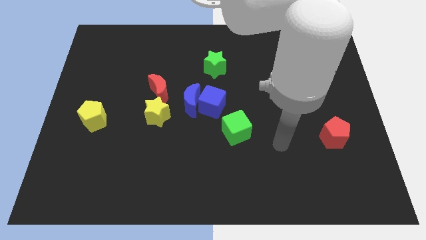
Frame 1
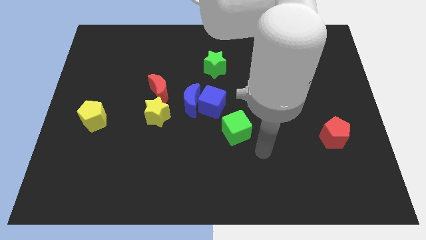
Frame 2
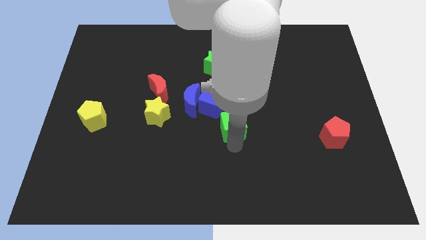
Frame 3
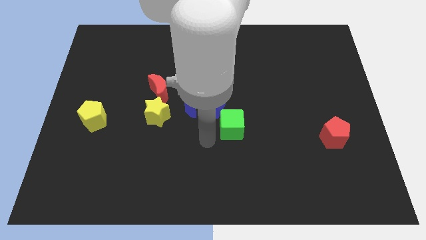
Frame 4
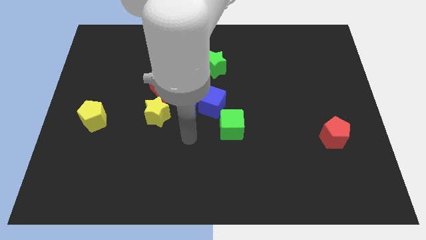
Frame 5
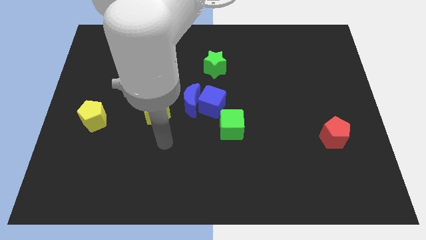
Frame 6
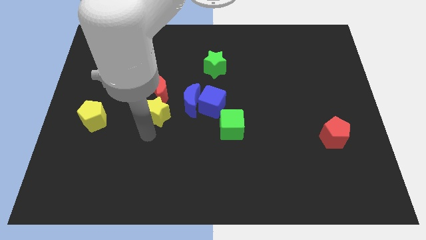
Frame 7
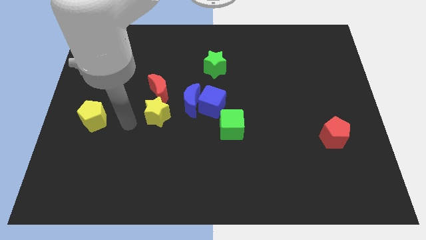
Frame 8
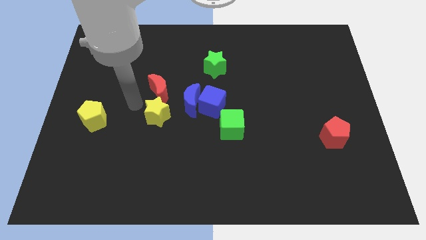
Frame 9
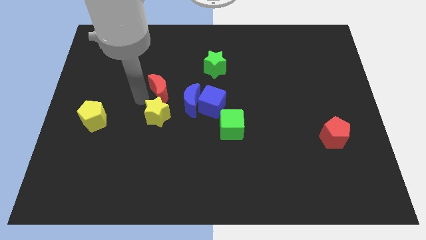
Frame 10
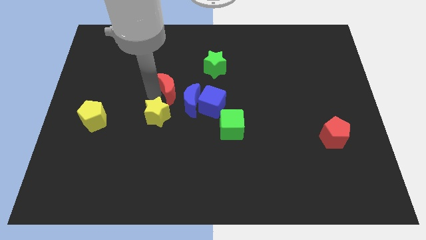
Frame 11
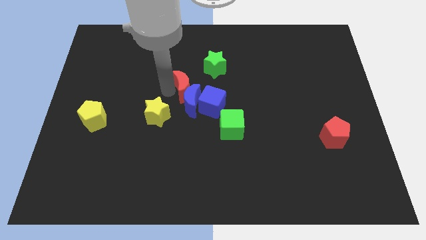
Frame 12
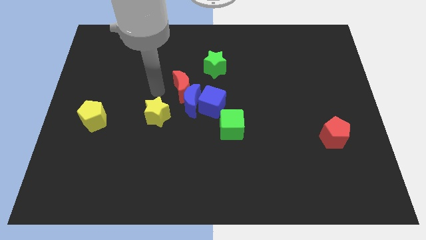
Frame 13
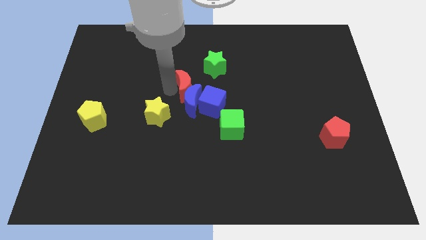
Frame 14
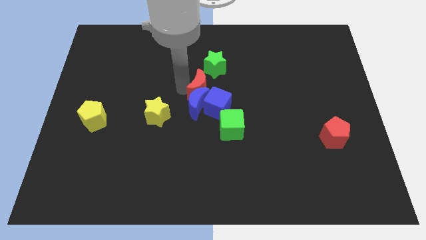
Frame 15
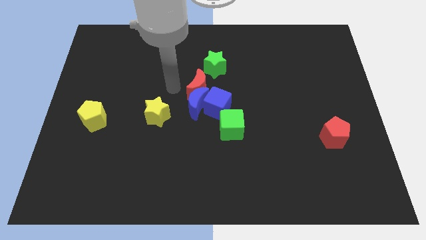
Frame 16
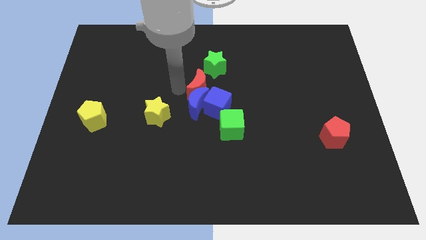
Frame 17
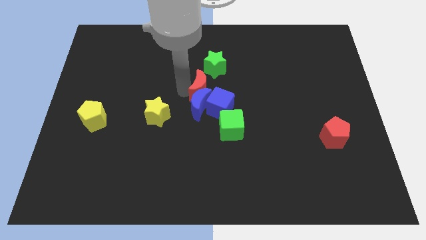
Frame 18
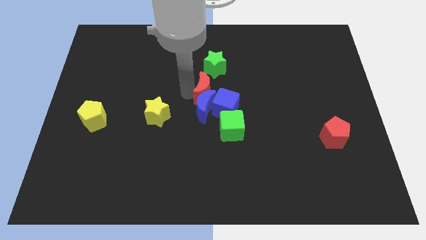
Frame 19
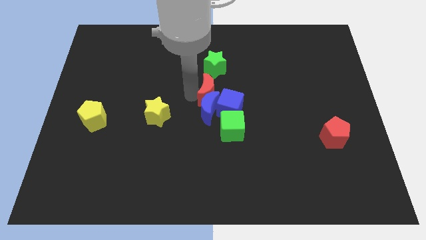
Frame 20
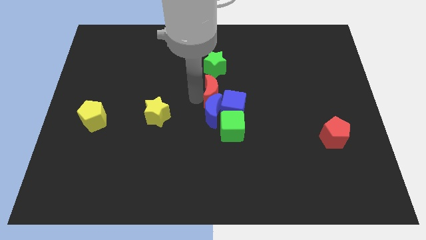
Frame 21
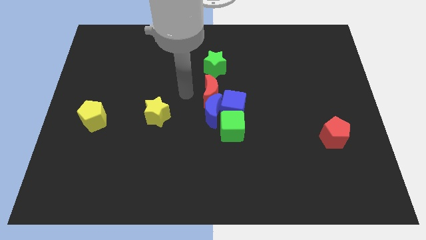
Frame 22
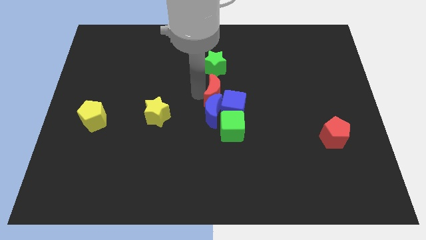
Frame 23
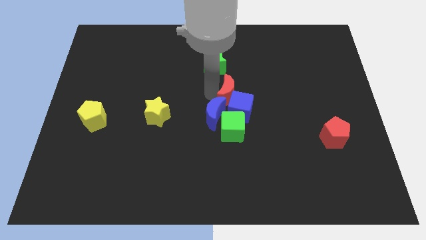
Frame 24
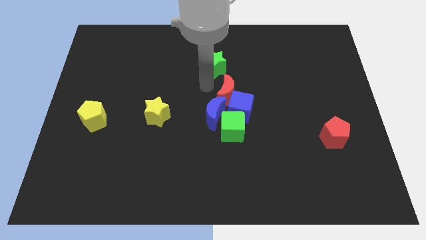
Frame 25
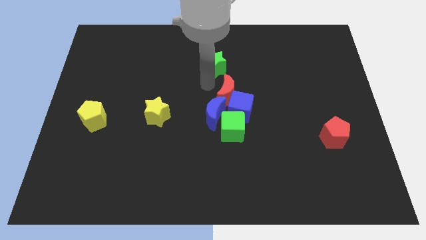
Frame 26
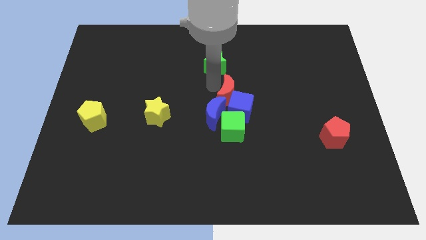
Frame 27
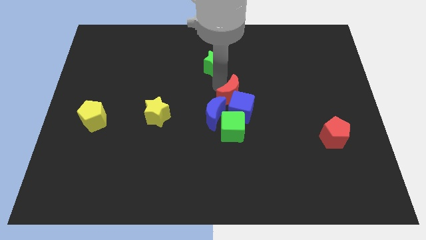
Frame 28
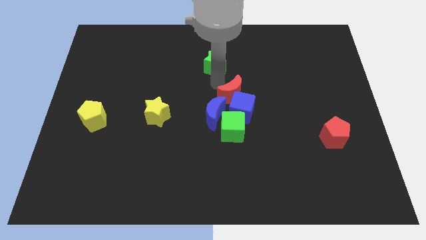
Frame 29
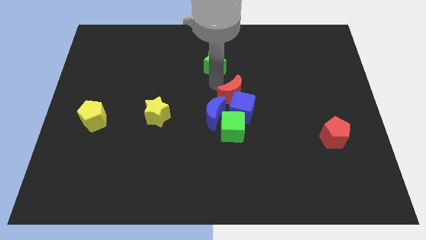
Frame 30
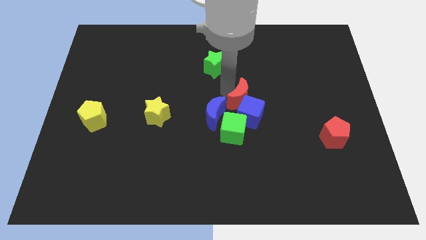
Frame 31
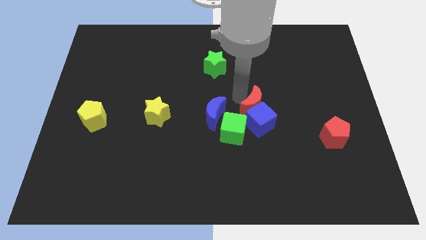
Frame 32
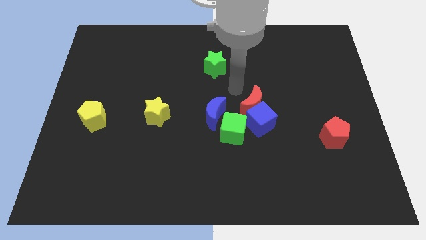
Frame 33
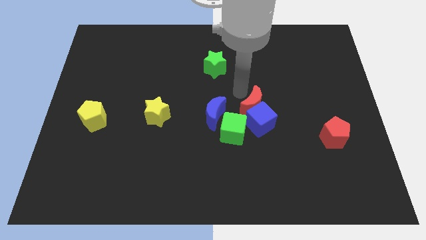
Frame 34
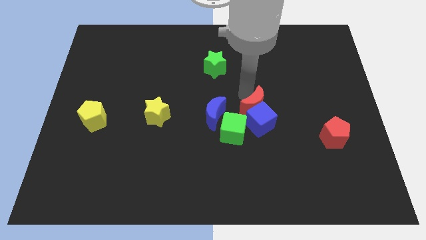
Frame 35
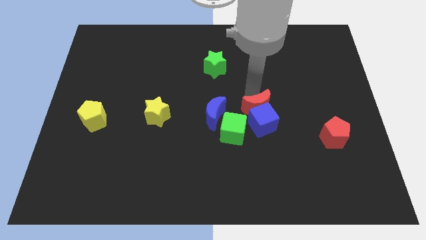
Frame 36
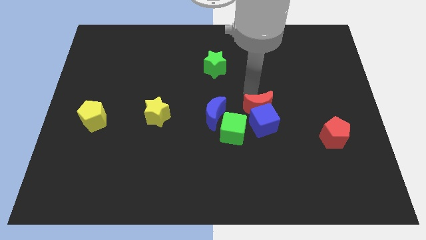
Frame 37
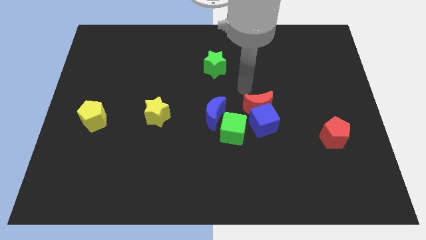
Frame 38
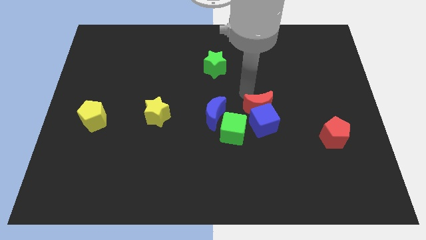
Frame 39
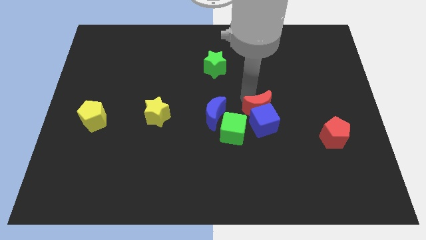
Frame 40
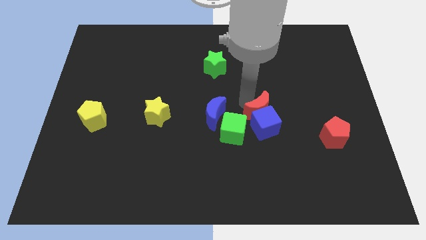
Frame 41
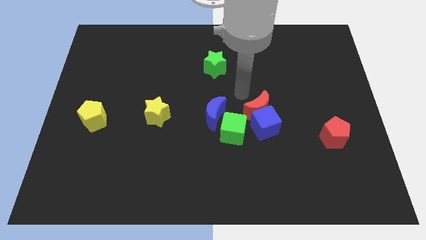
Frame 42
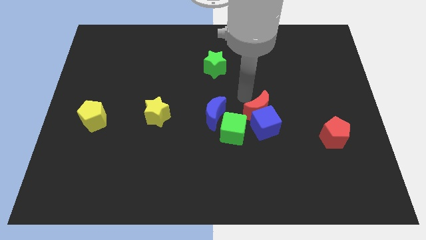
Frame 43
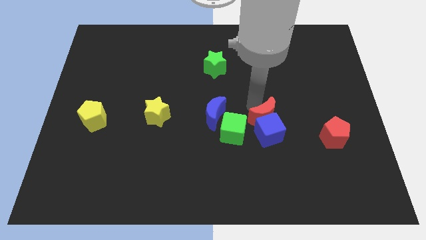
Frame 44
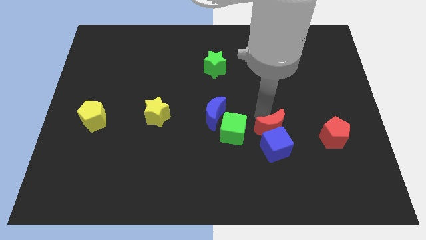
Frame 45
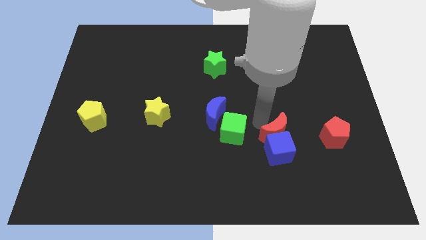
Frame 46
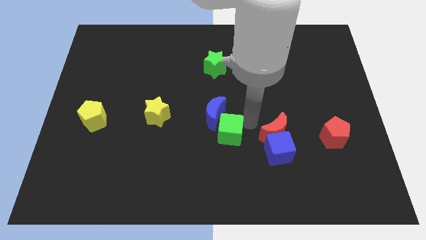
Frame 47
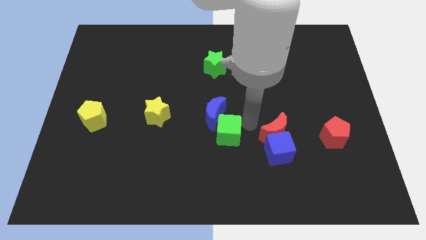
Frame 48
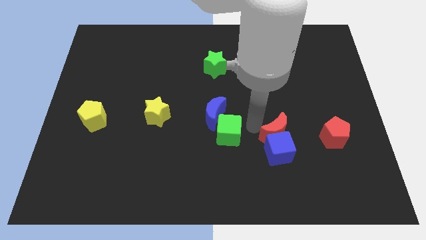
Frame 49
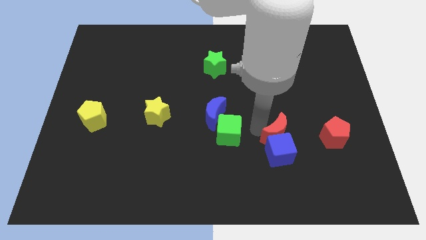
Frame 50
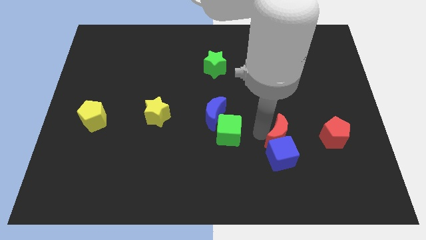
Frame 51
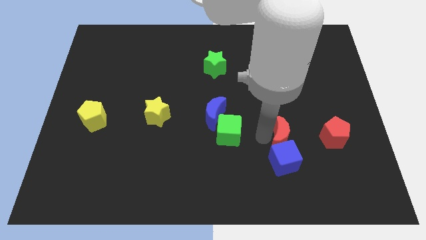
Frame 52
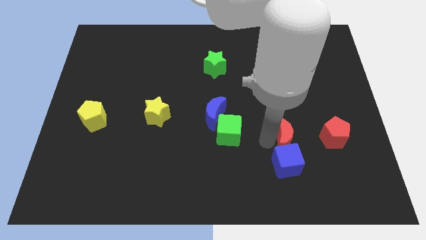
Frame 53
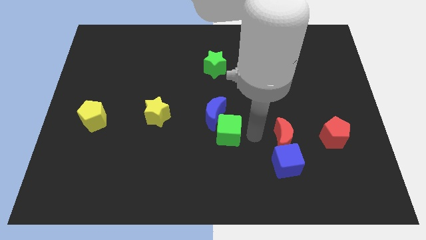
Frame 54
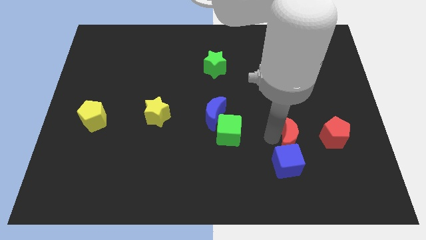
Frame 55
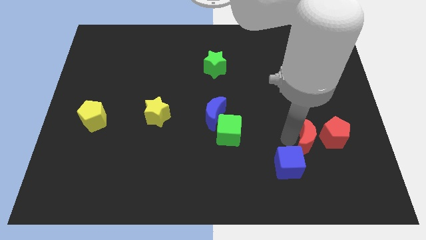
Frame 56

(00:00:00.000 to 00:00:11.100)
slide the red moon next to the red pentagon

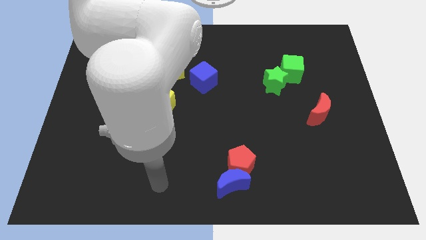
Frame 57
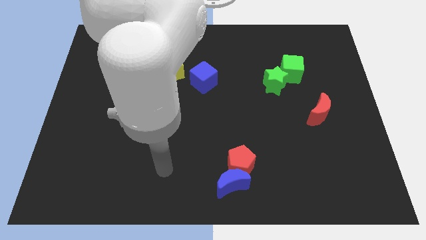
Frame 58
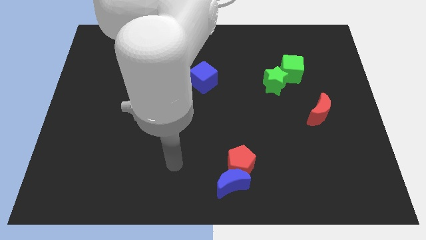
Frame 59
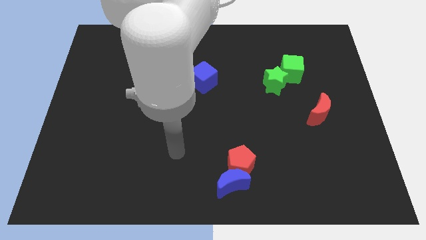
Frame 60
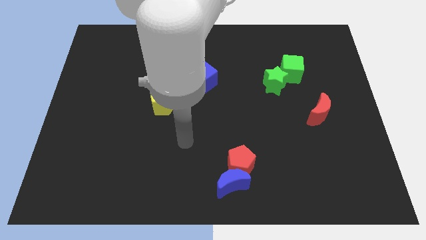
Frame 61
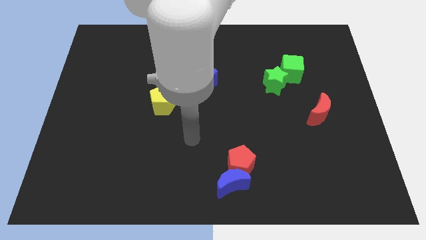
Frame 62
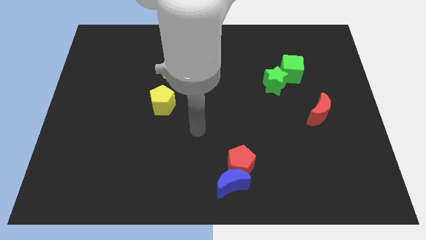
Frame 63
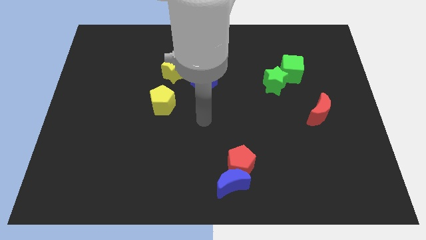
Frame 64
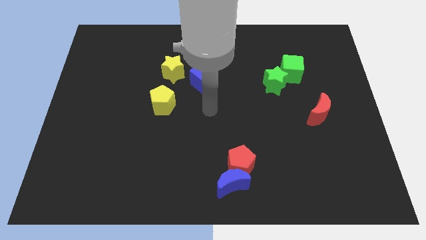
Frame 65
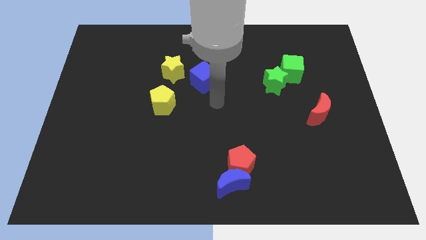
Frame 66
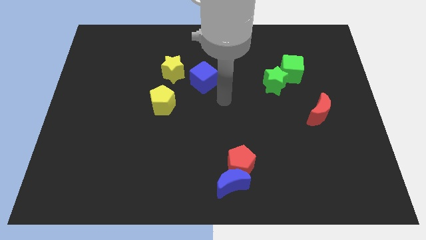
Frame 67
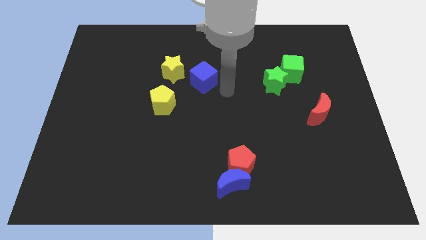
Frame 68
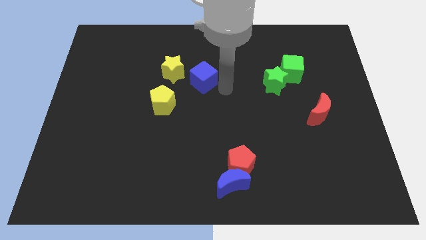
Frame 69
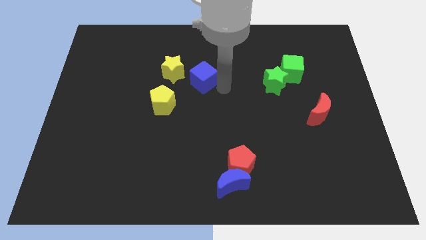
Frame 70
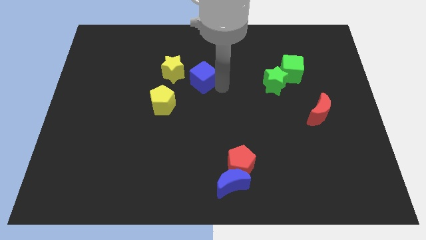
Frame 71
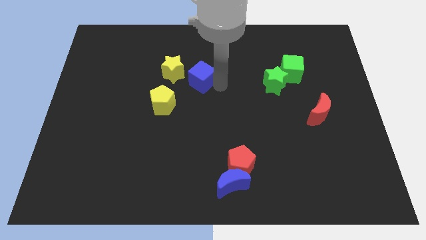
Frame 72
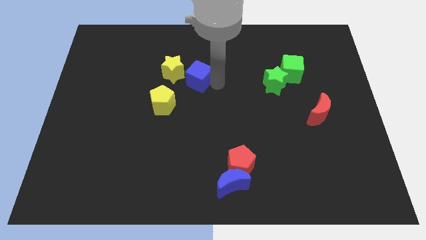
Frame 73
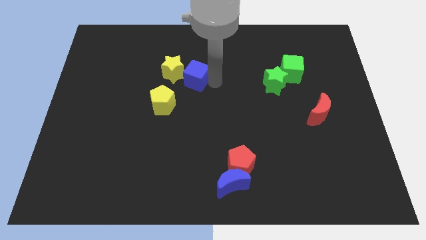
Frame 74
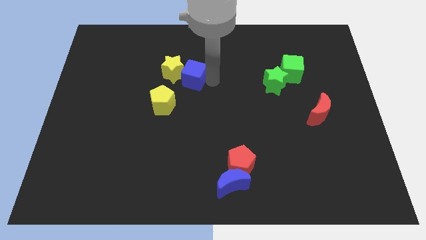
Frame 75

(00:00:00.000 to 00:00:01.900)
move the blue cube close to the yellow star
